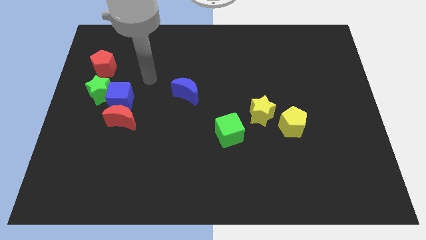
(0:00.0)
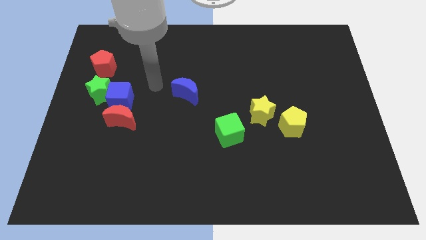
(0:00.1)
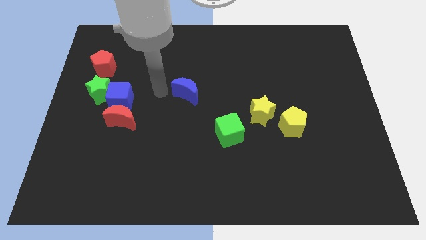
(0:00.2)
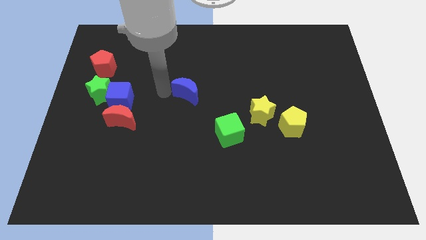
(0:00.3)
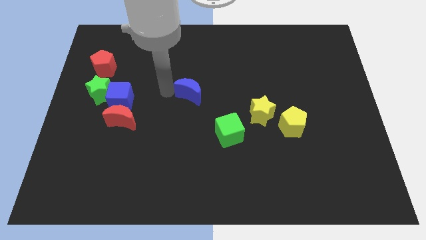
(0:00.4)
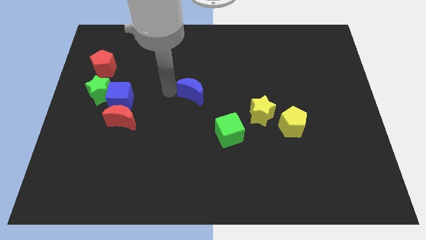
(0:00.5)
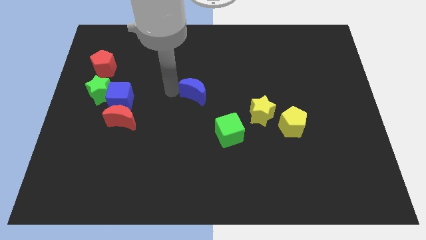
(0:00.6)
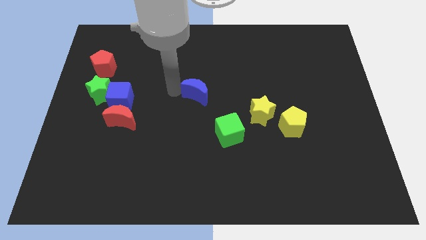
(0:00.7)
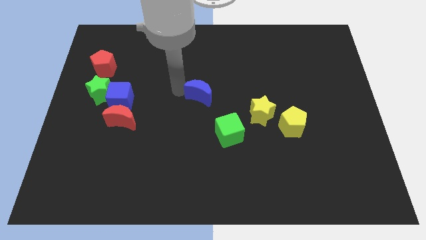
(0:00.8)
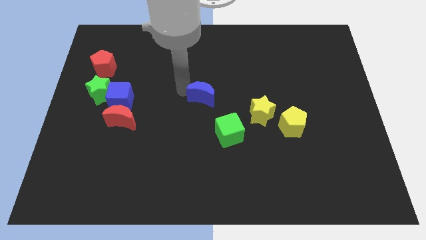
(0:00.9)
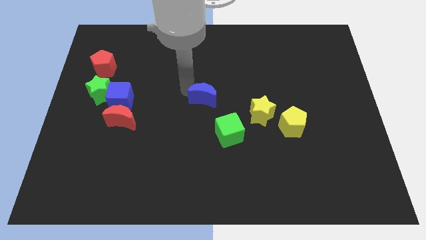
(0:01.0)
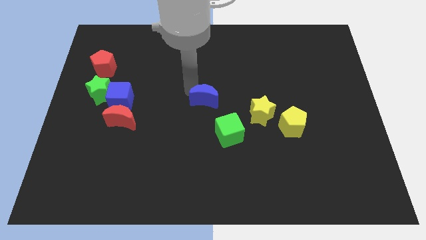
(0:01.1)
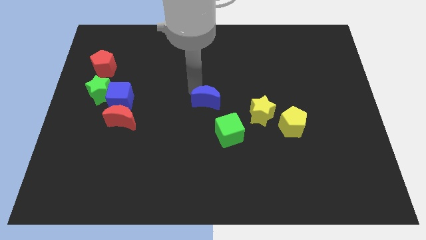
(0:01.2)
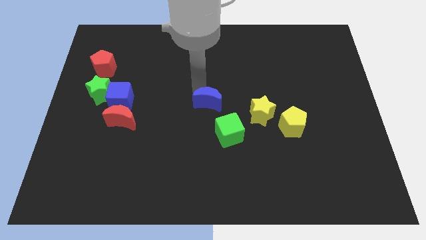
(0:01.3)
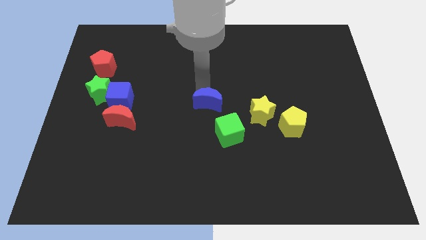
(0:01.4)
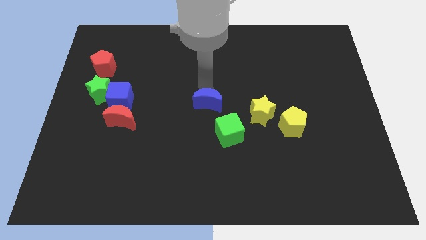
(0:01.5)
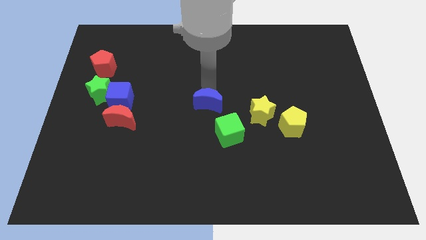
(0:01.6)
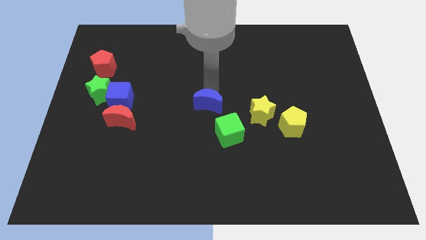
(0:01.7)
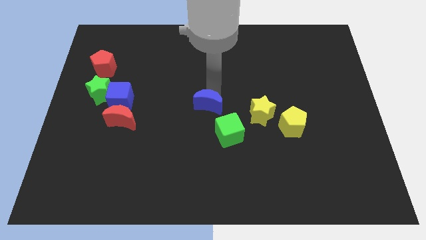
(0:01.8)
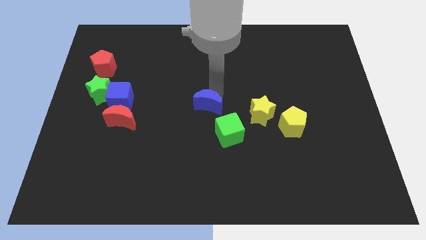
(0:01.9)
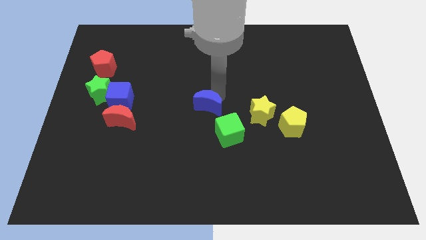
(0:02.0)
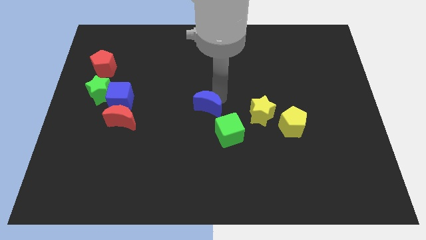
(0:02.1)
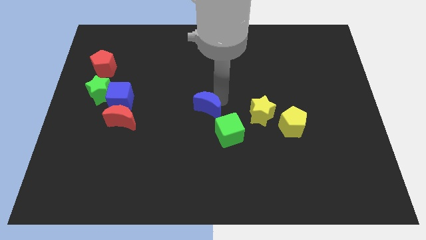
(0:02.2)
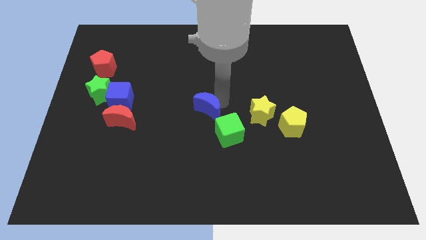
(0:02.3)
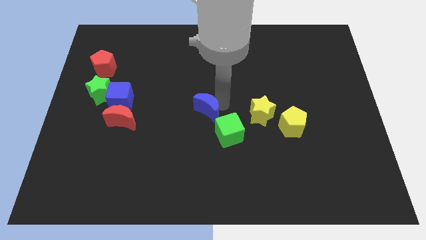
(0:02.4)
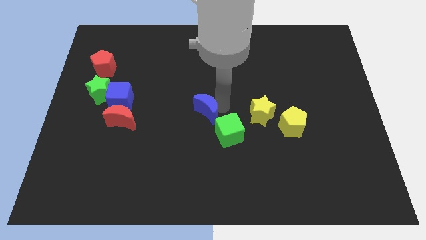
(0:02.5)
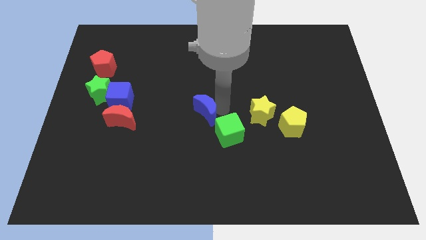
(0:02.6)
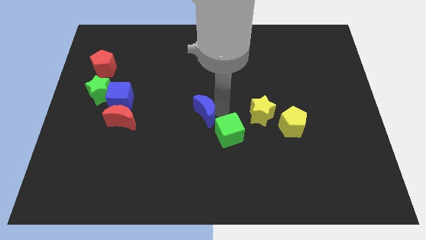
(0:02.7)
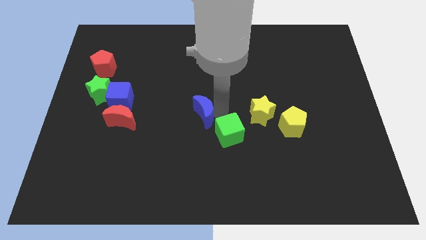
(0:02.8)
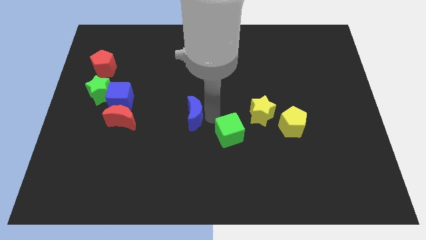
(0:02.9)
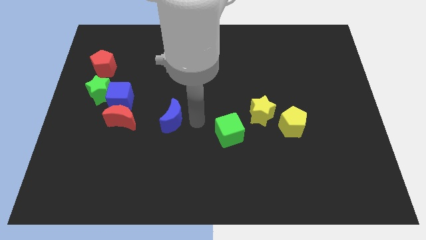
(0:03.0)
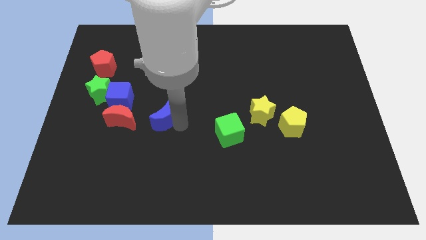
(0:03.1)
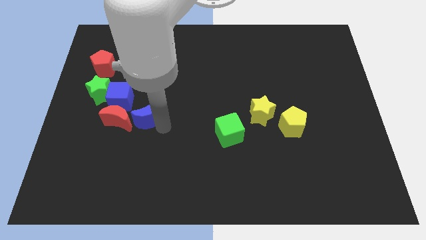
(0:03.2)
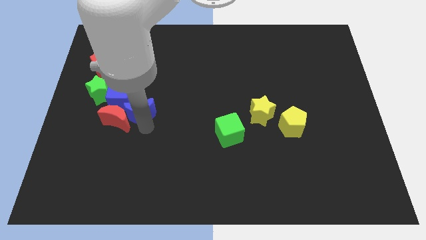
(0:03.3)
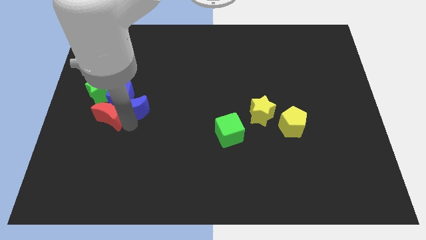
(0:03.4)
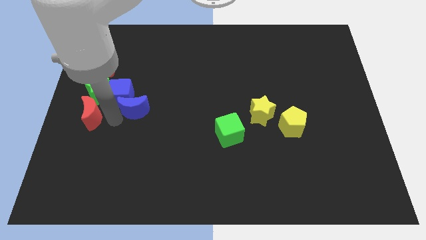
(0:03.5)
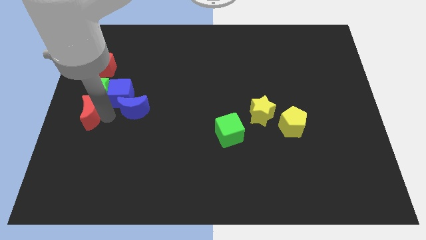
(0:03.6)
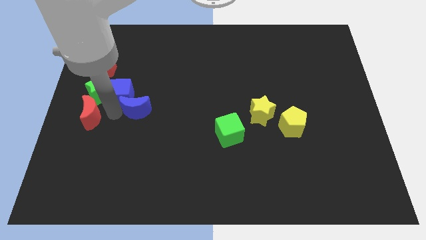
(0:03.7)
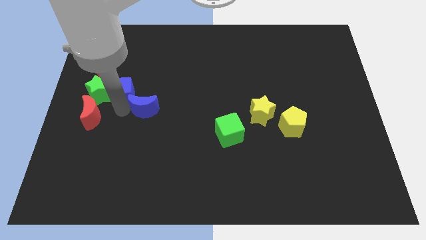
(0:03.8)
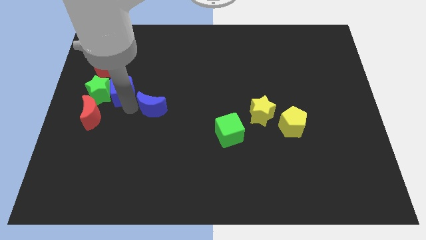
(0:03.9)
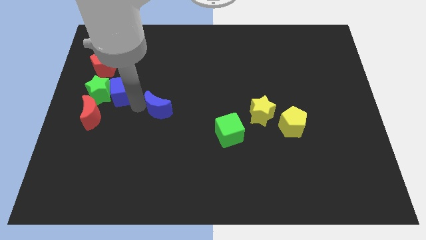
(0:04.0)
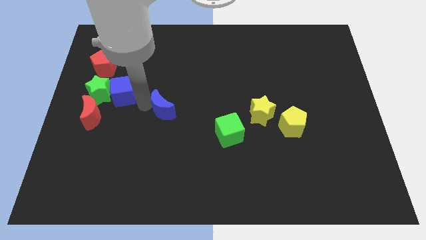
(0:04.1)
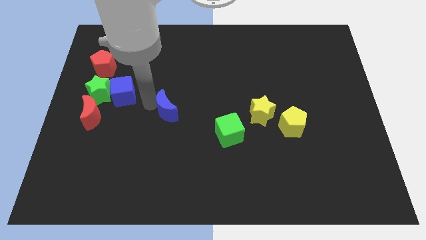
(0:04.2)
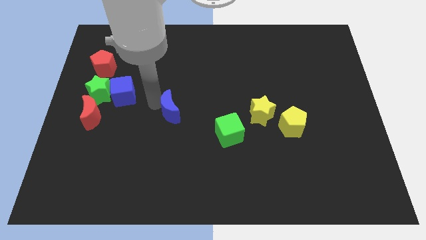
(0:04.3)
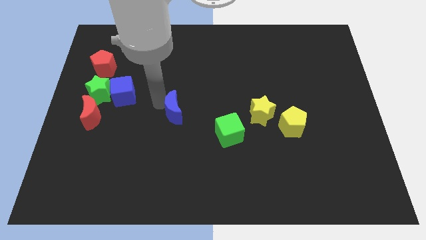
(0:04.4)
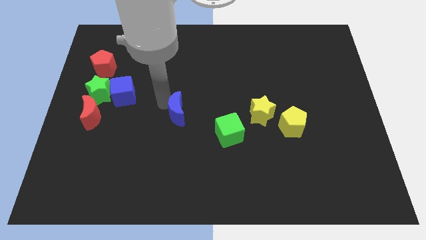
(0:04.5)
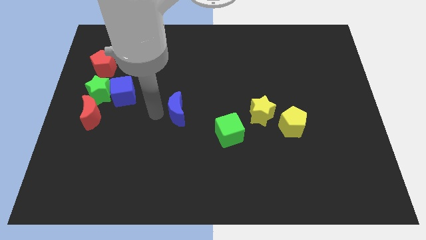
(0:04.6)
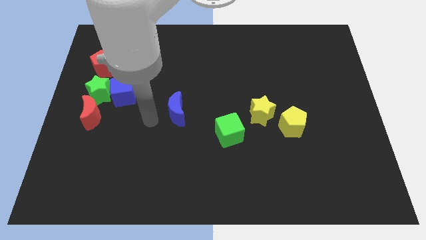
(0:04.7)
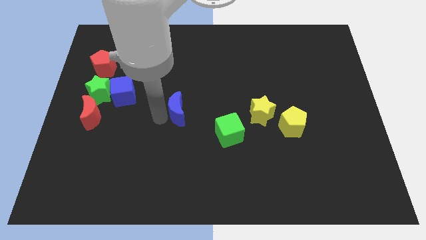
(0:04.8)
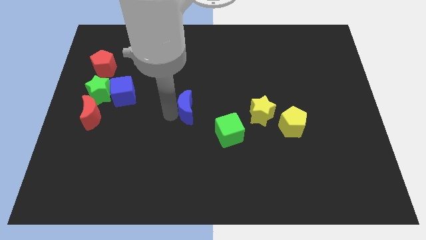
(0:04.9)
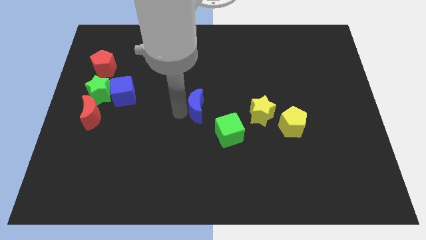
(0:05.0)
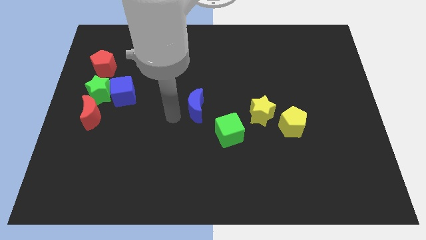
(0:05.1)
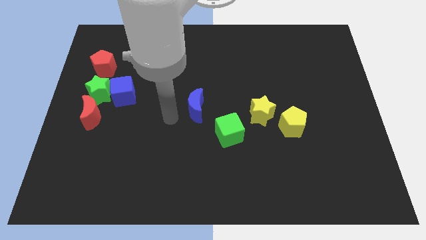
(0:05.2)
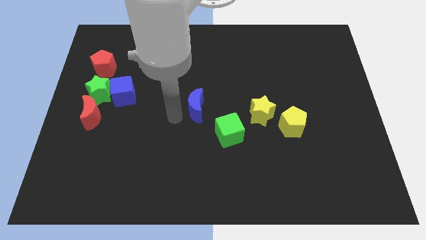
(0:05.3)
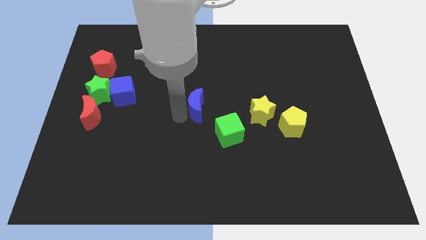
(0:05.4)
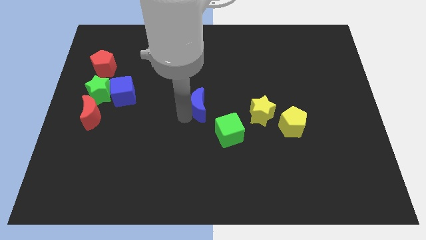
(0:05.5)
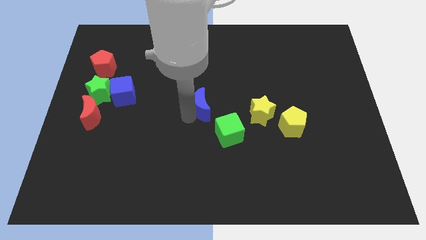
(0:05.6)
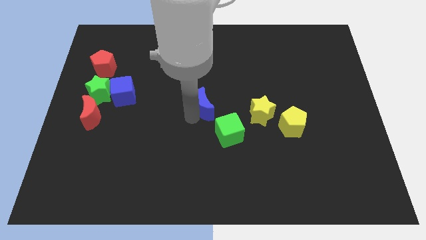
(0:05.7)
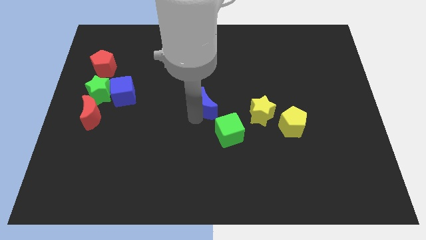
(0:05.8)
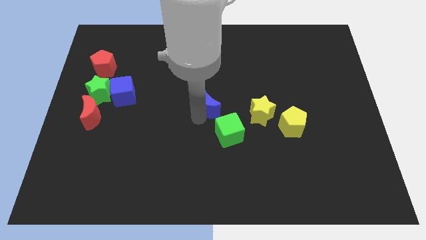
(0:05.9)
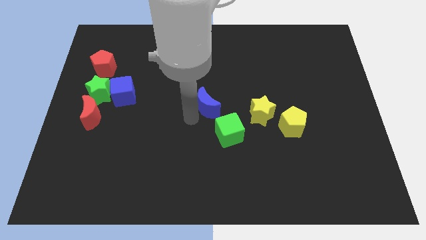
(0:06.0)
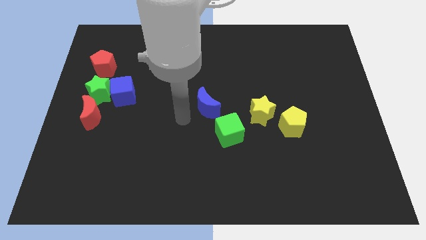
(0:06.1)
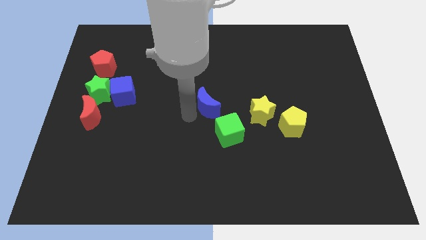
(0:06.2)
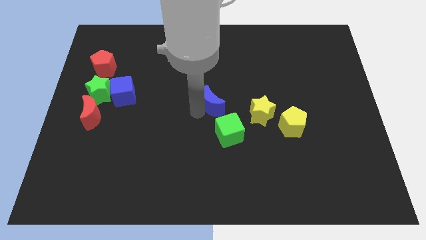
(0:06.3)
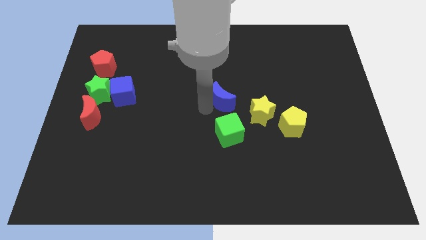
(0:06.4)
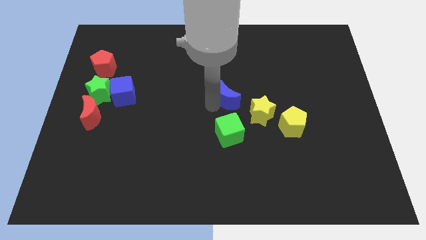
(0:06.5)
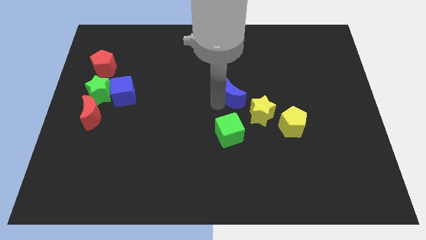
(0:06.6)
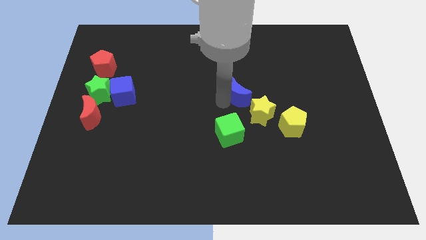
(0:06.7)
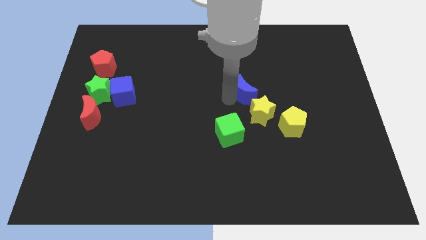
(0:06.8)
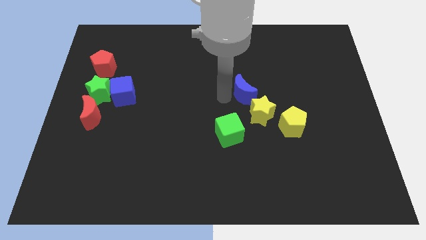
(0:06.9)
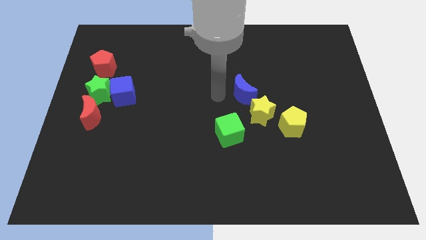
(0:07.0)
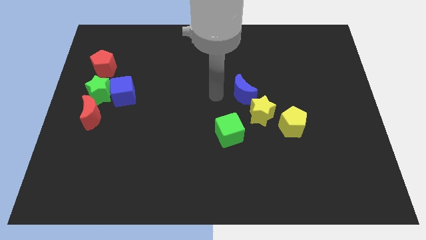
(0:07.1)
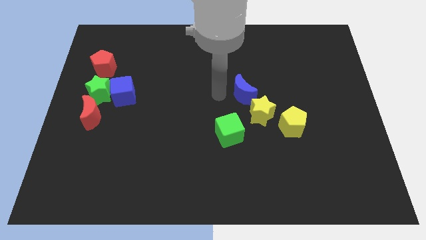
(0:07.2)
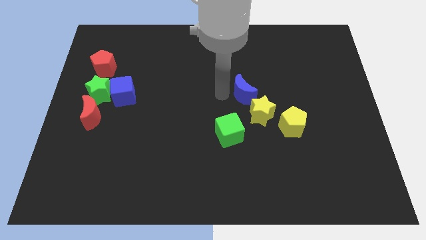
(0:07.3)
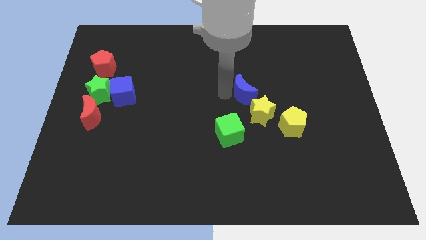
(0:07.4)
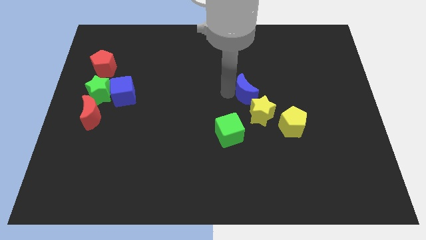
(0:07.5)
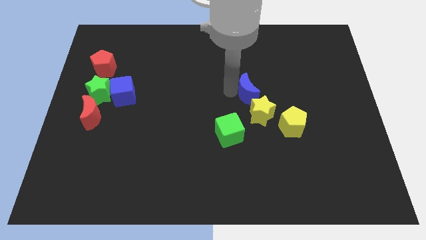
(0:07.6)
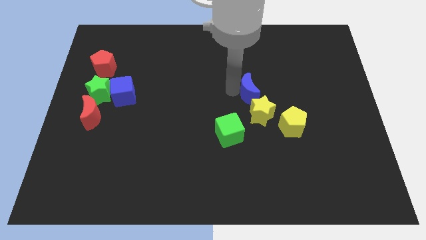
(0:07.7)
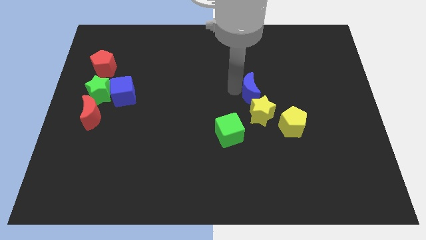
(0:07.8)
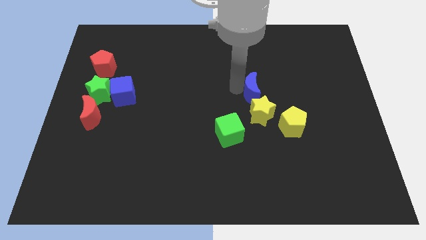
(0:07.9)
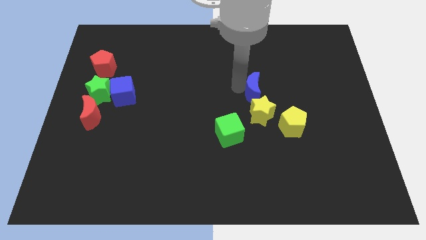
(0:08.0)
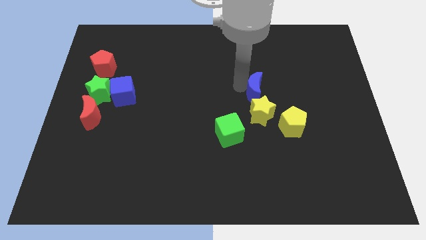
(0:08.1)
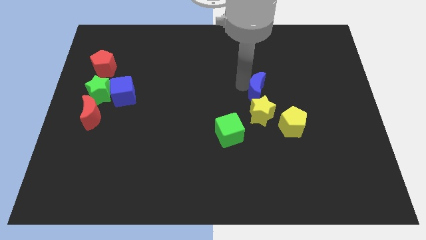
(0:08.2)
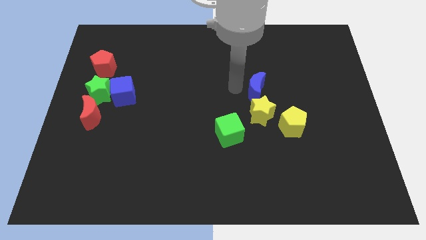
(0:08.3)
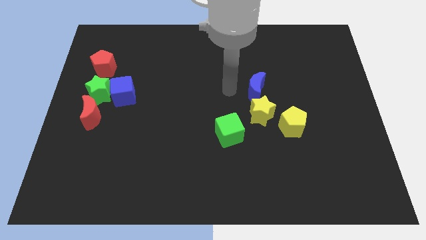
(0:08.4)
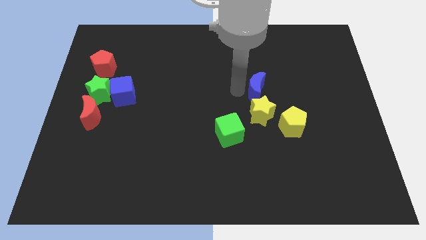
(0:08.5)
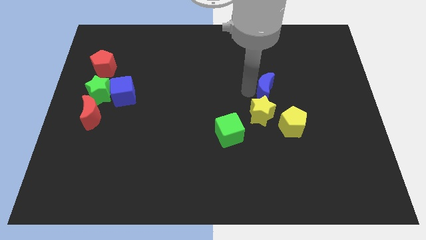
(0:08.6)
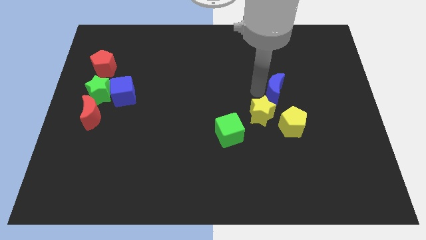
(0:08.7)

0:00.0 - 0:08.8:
push the blue moon to the right
